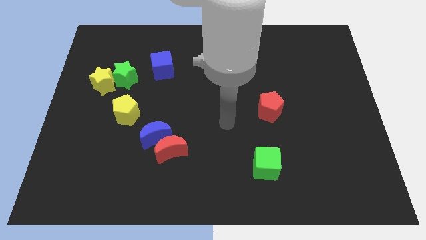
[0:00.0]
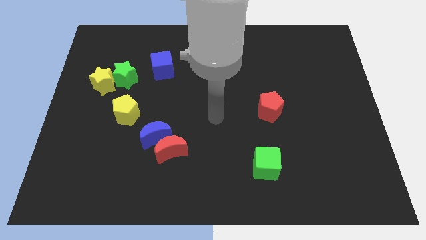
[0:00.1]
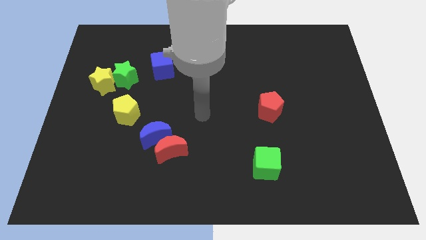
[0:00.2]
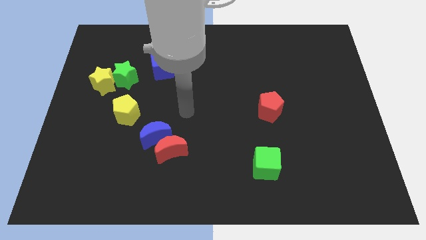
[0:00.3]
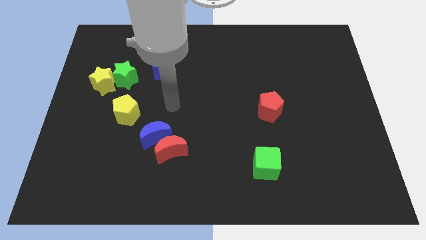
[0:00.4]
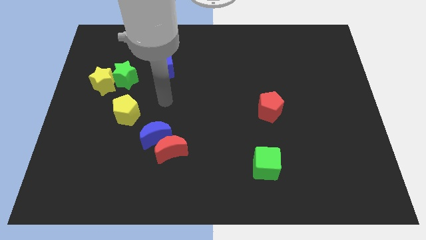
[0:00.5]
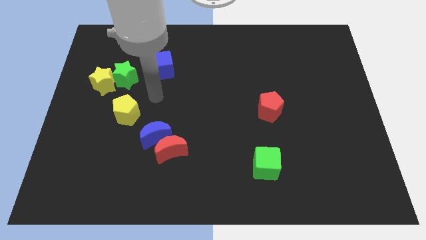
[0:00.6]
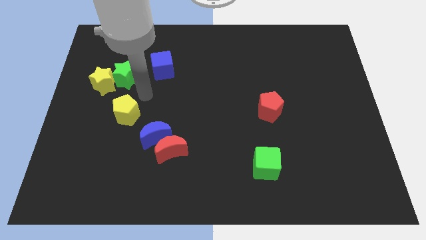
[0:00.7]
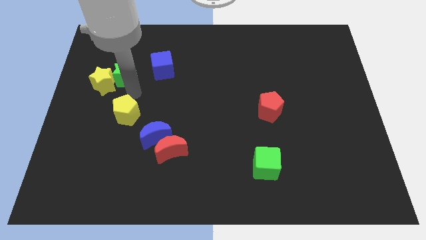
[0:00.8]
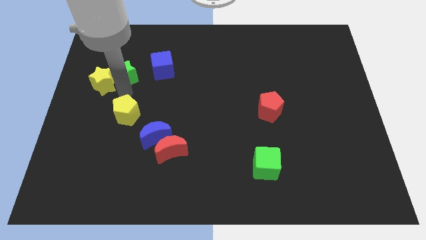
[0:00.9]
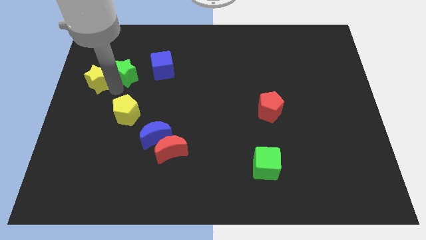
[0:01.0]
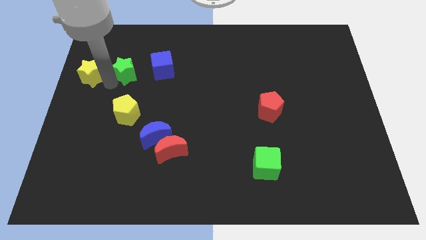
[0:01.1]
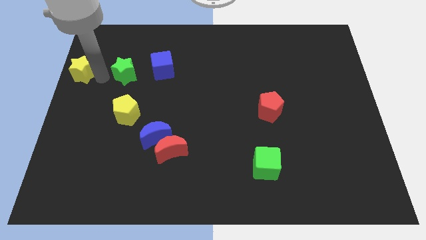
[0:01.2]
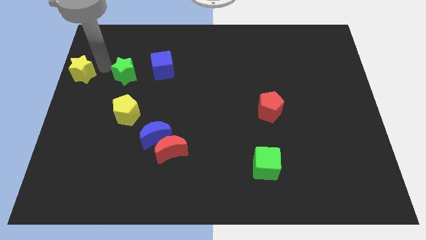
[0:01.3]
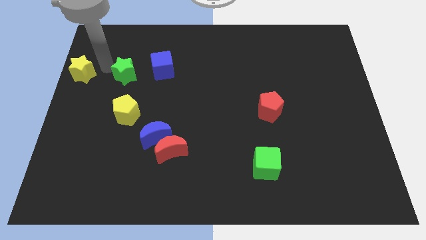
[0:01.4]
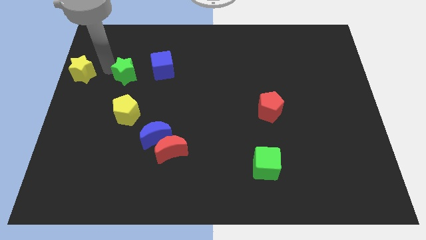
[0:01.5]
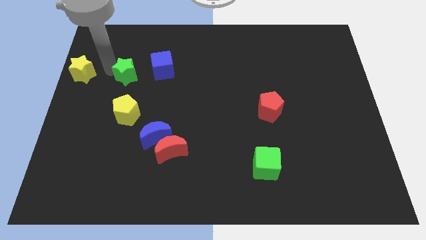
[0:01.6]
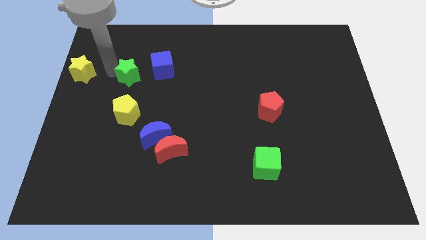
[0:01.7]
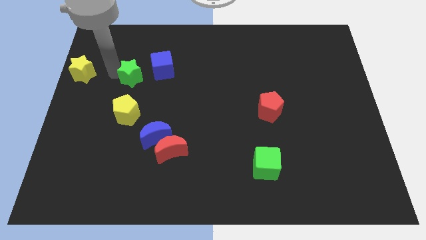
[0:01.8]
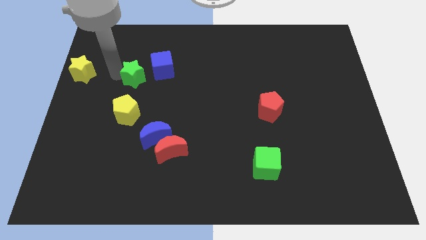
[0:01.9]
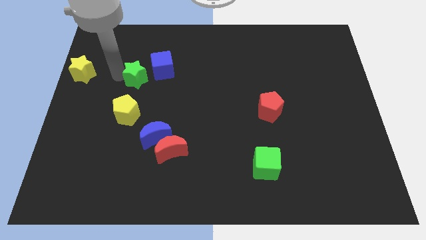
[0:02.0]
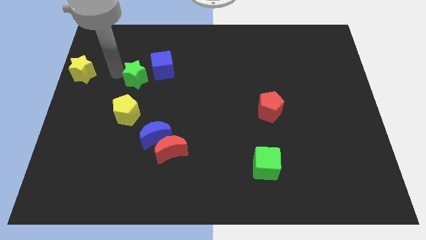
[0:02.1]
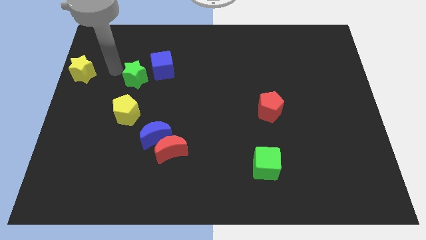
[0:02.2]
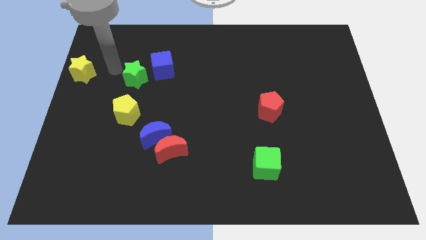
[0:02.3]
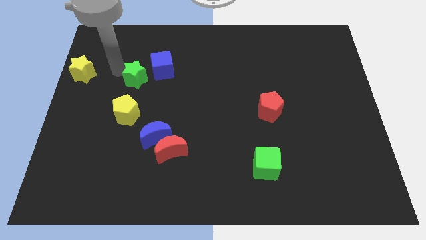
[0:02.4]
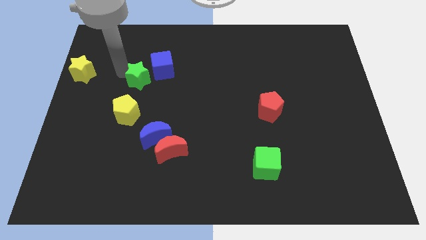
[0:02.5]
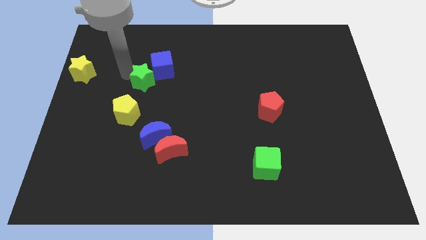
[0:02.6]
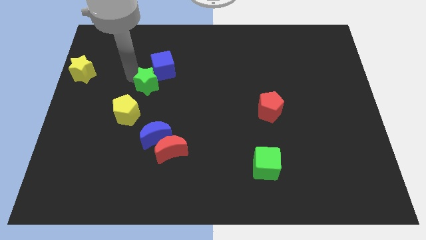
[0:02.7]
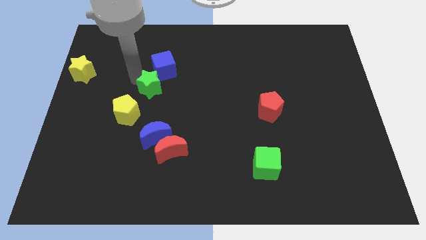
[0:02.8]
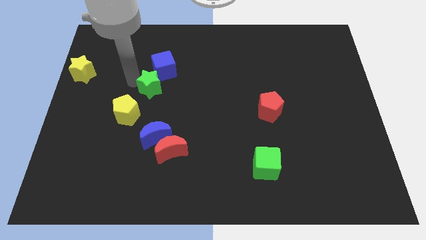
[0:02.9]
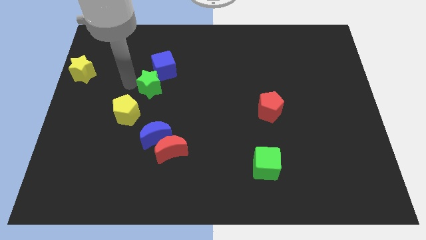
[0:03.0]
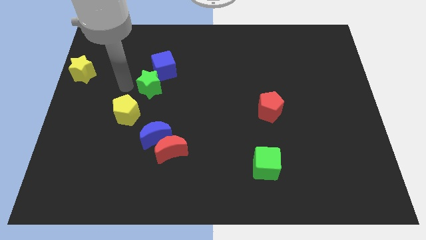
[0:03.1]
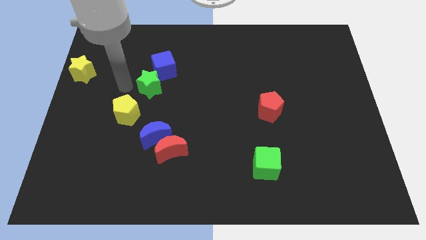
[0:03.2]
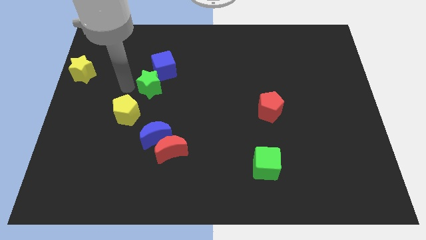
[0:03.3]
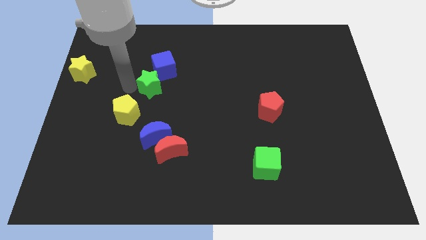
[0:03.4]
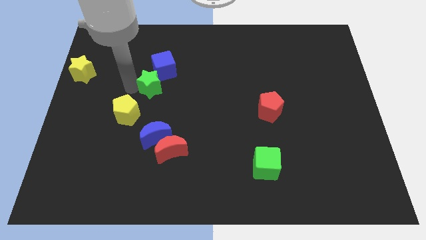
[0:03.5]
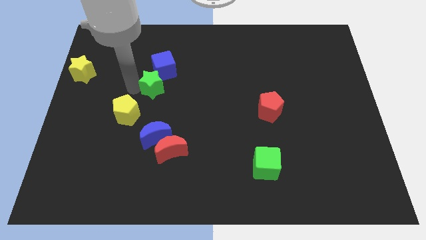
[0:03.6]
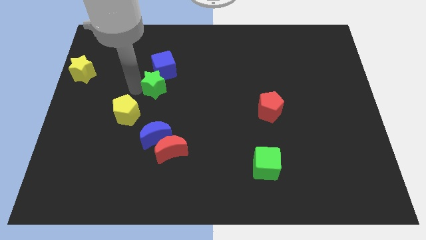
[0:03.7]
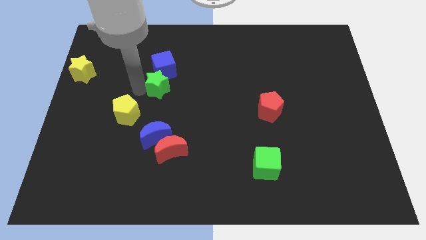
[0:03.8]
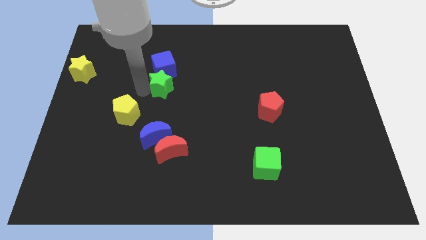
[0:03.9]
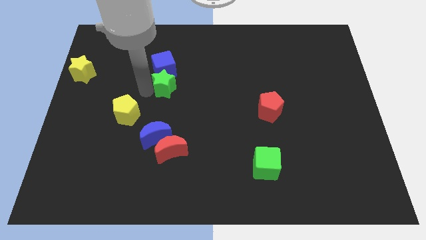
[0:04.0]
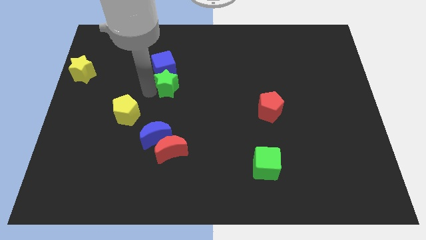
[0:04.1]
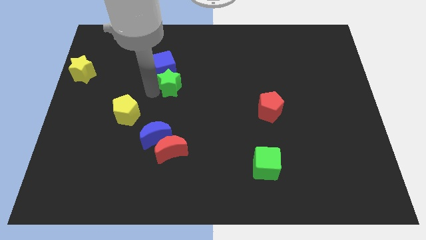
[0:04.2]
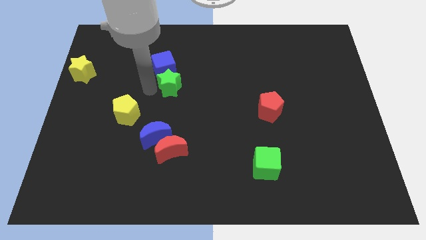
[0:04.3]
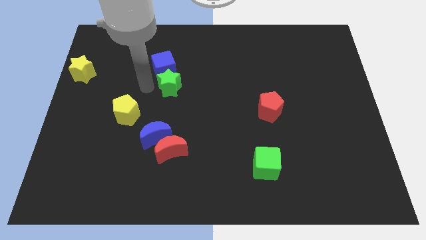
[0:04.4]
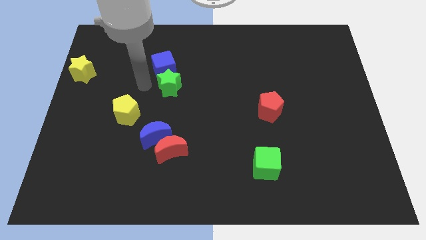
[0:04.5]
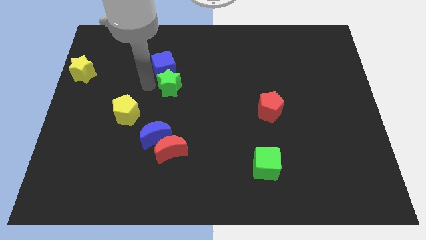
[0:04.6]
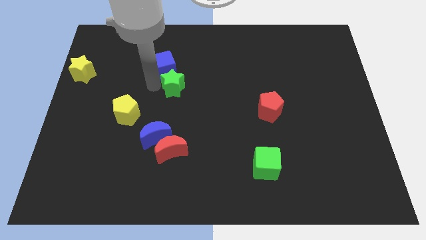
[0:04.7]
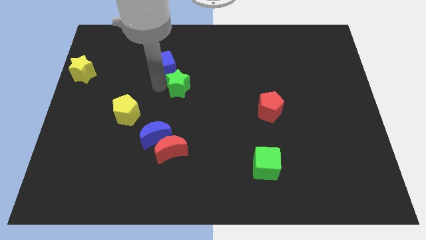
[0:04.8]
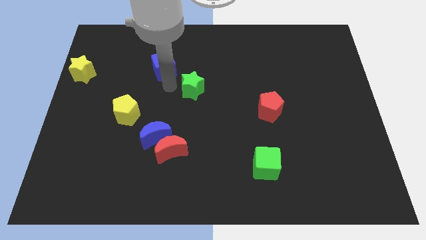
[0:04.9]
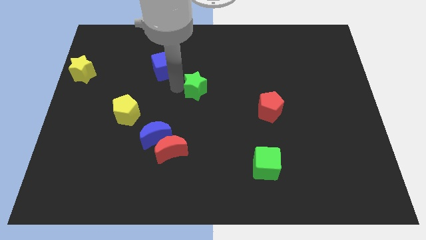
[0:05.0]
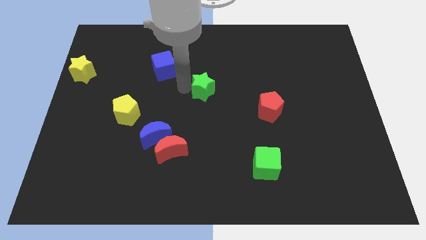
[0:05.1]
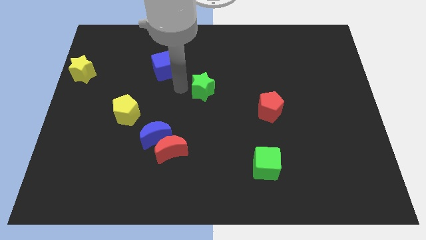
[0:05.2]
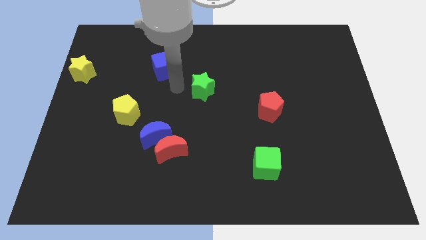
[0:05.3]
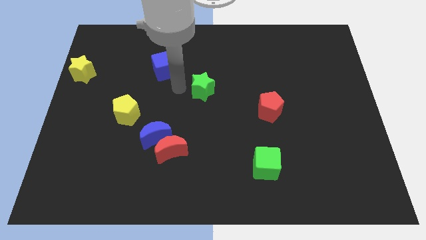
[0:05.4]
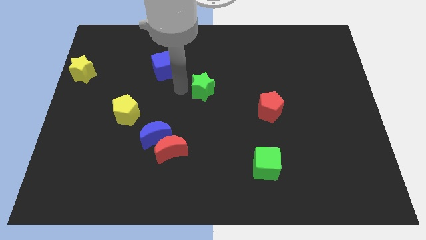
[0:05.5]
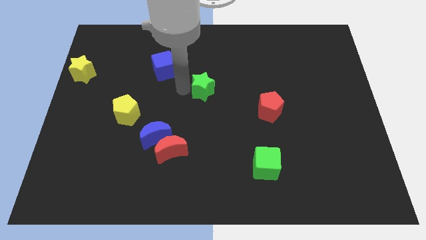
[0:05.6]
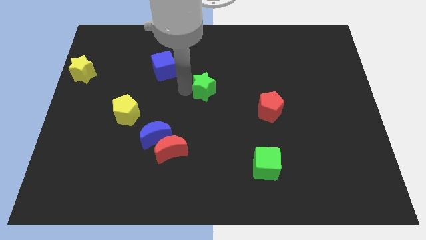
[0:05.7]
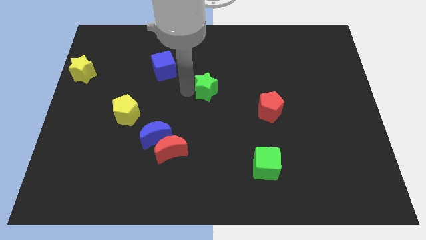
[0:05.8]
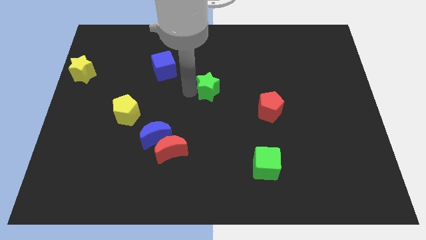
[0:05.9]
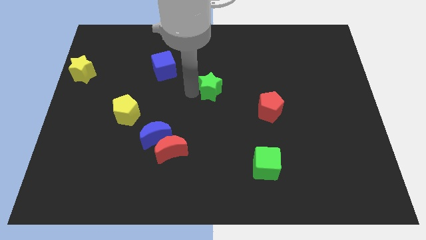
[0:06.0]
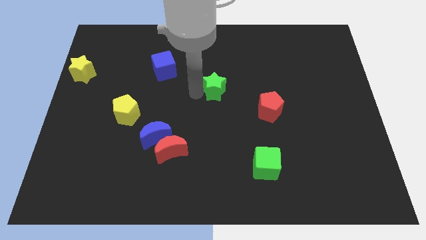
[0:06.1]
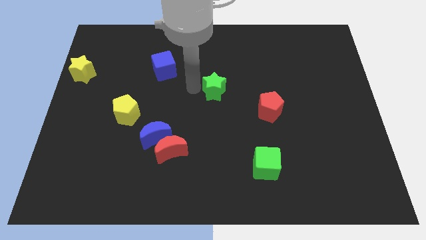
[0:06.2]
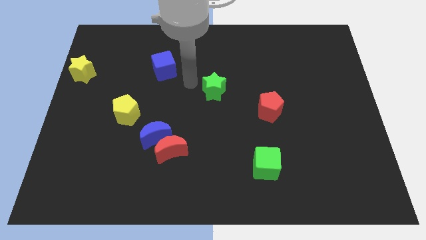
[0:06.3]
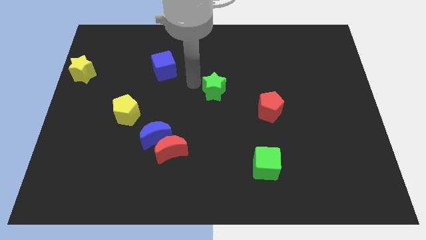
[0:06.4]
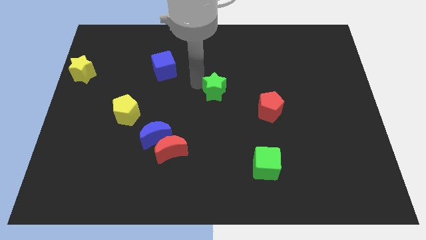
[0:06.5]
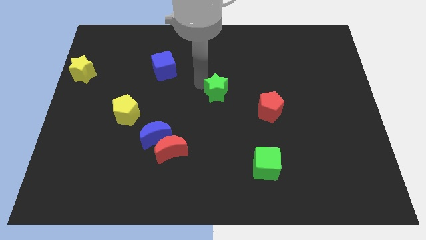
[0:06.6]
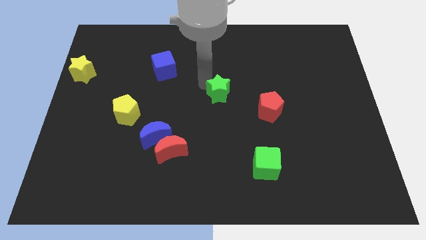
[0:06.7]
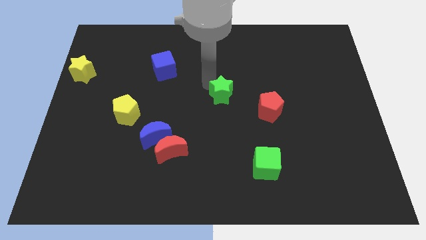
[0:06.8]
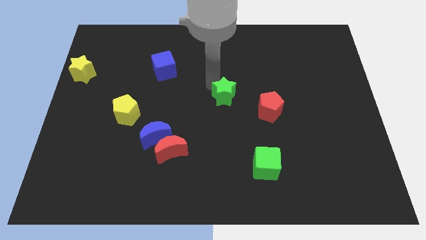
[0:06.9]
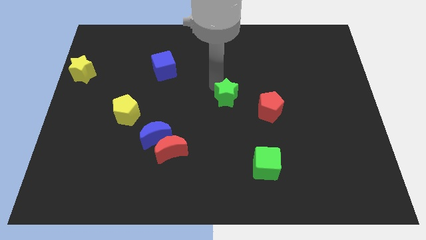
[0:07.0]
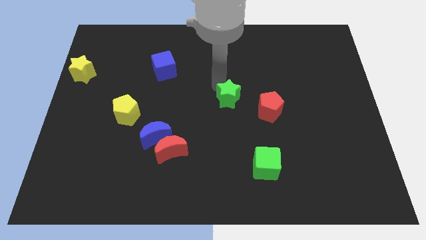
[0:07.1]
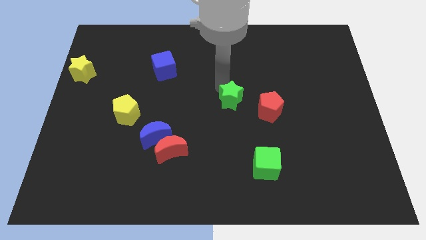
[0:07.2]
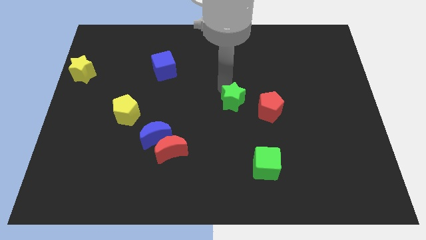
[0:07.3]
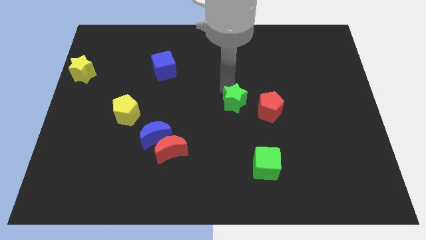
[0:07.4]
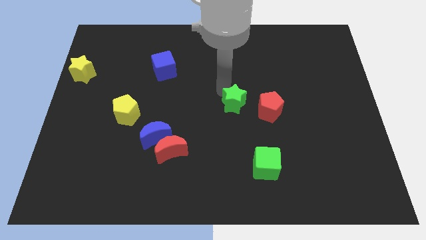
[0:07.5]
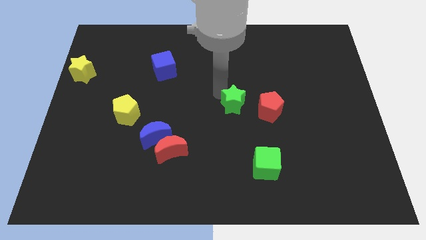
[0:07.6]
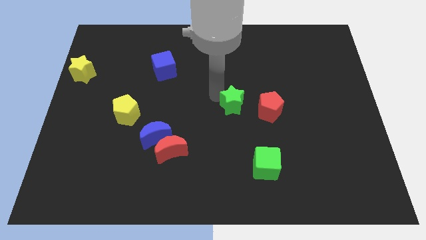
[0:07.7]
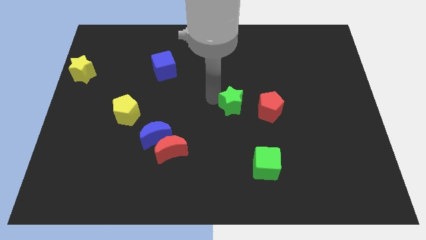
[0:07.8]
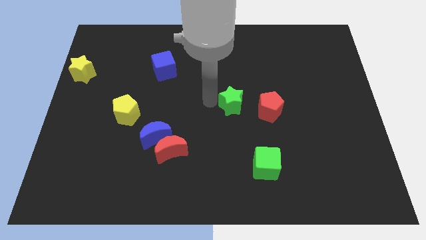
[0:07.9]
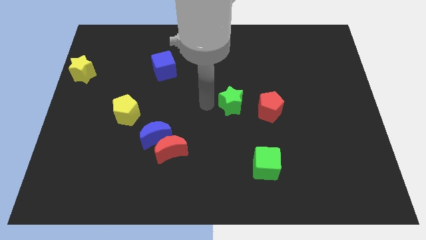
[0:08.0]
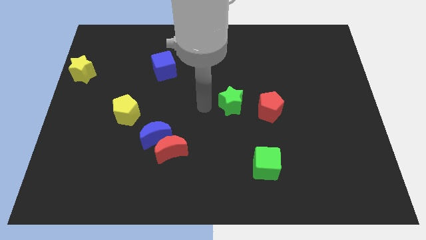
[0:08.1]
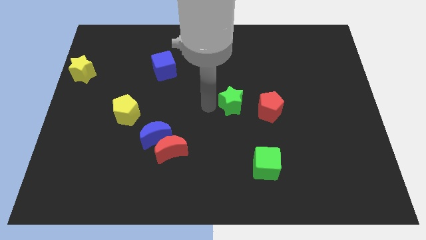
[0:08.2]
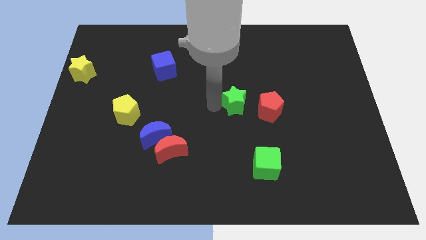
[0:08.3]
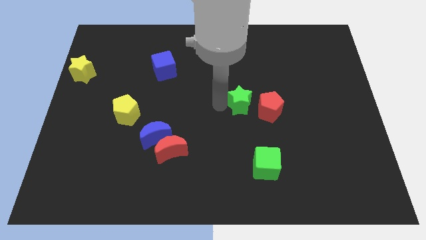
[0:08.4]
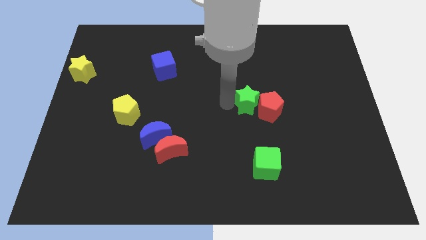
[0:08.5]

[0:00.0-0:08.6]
slide the green star close to the red pentagon
